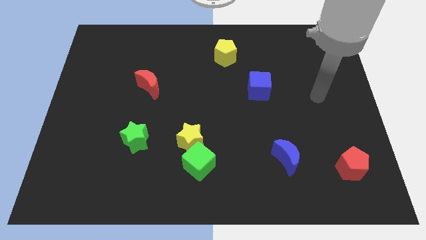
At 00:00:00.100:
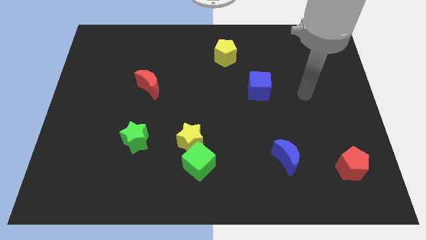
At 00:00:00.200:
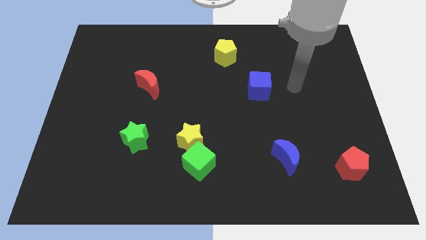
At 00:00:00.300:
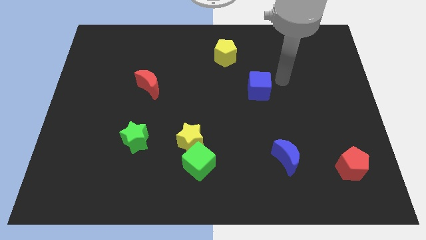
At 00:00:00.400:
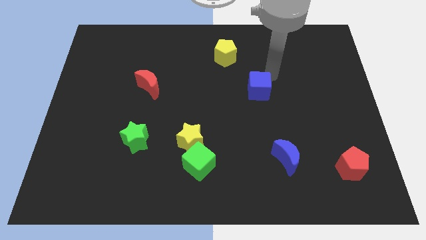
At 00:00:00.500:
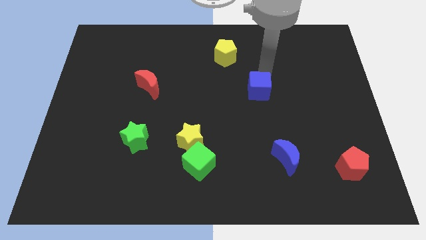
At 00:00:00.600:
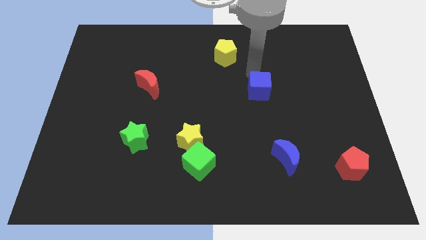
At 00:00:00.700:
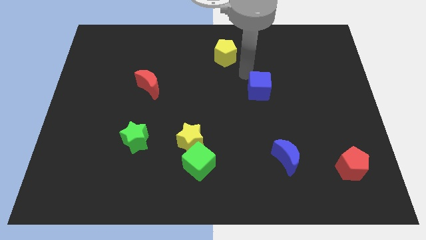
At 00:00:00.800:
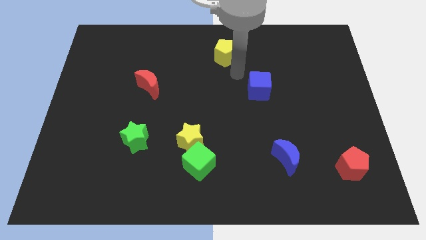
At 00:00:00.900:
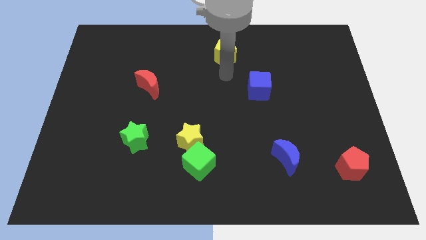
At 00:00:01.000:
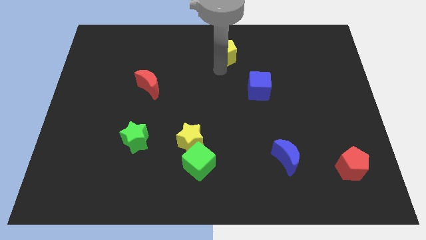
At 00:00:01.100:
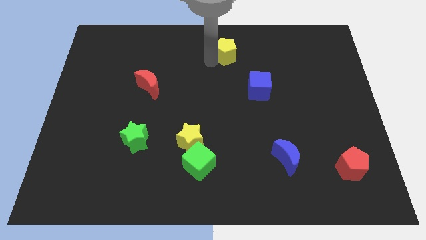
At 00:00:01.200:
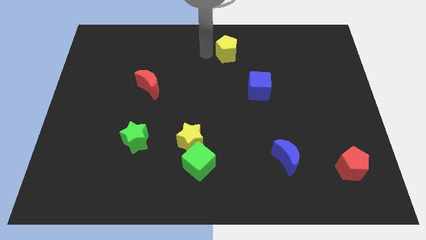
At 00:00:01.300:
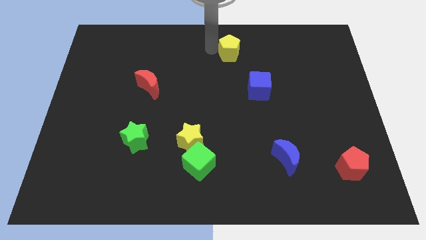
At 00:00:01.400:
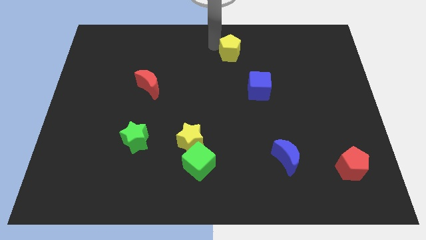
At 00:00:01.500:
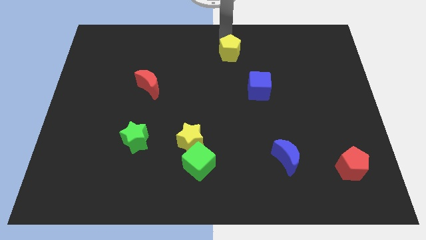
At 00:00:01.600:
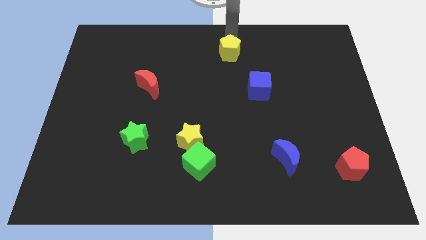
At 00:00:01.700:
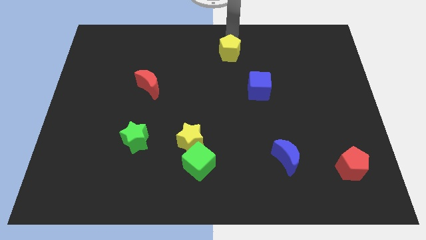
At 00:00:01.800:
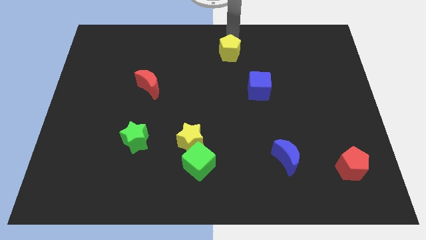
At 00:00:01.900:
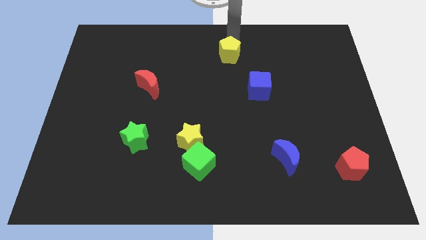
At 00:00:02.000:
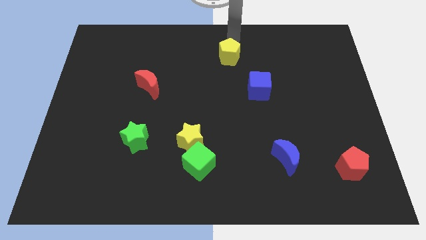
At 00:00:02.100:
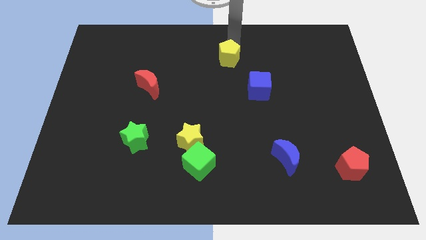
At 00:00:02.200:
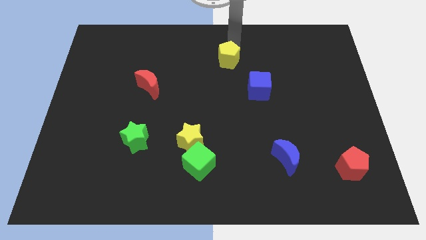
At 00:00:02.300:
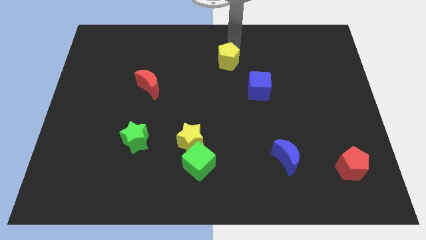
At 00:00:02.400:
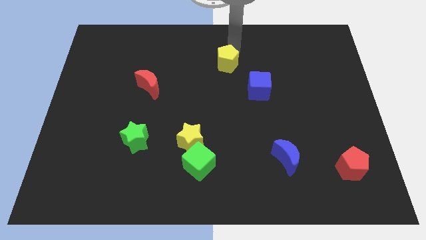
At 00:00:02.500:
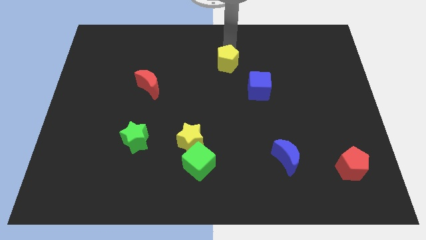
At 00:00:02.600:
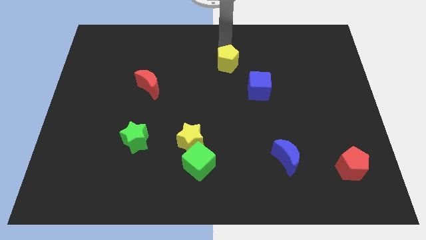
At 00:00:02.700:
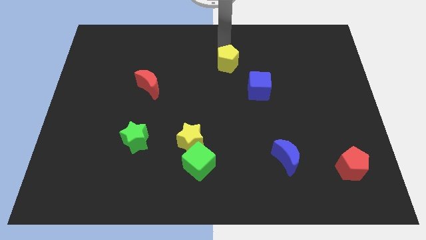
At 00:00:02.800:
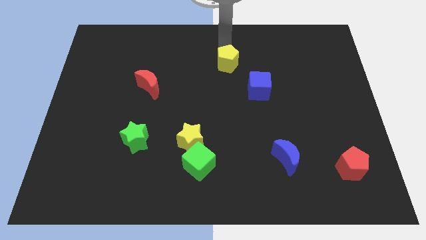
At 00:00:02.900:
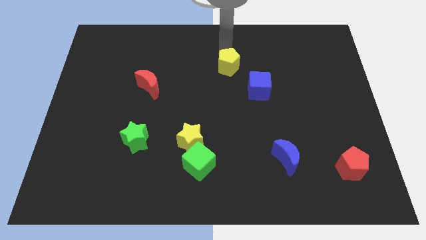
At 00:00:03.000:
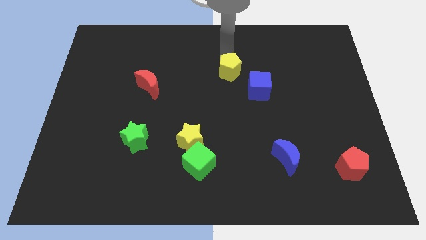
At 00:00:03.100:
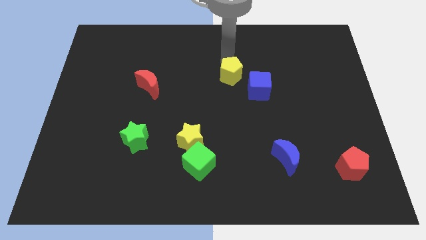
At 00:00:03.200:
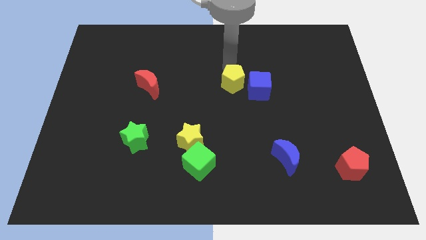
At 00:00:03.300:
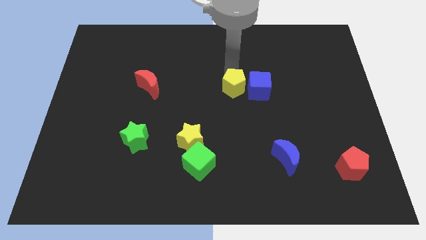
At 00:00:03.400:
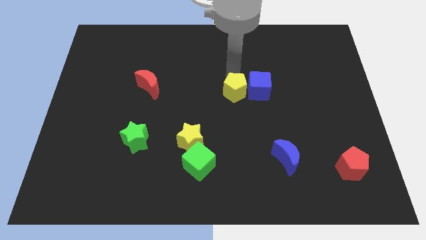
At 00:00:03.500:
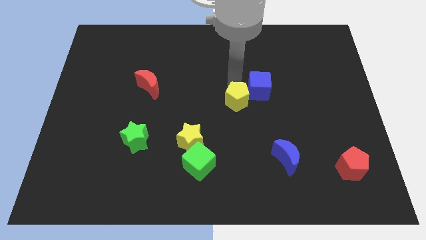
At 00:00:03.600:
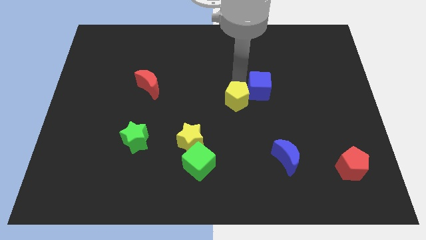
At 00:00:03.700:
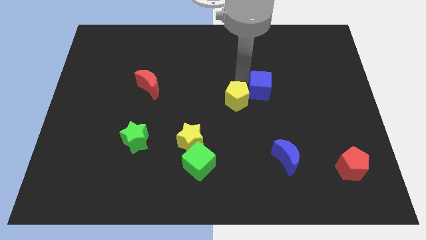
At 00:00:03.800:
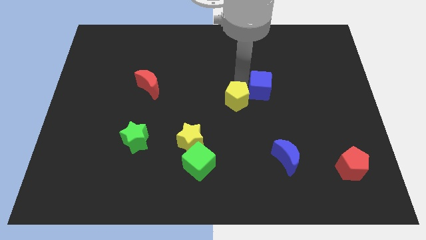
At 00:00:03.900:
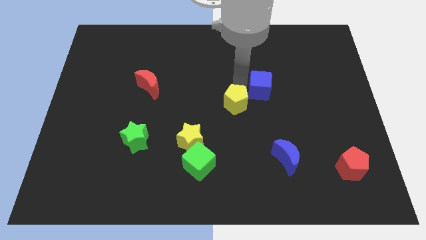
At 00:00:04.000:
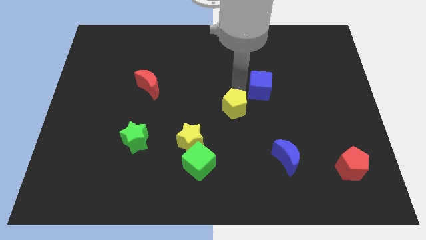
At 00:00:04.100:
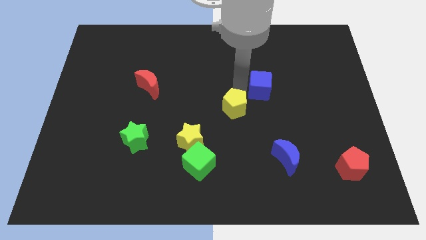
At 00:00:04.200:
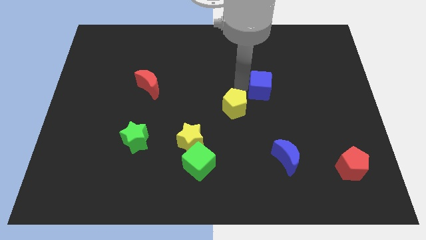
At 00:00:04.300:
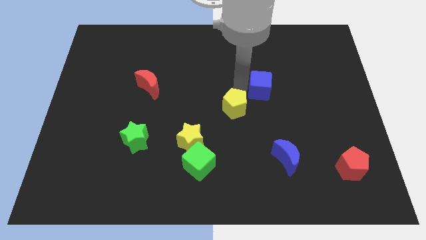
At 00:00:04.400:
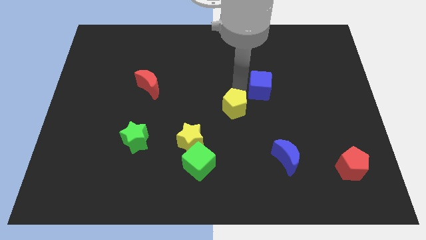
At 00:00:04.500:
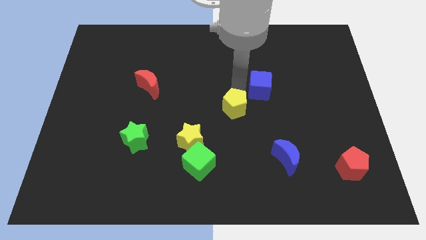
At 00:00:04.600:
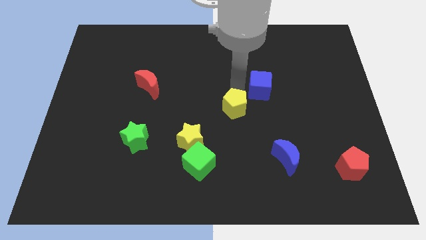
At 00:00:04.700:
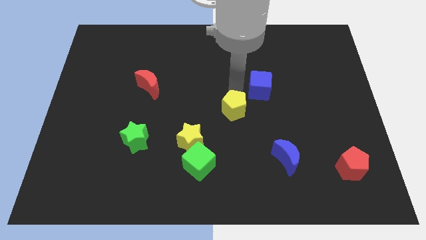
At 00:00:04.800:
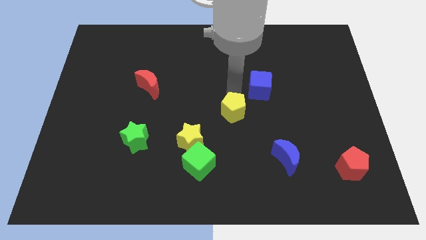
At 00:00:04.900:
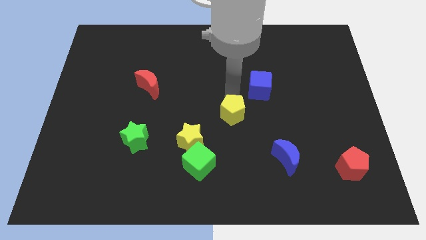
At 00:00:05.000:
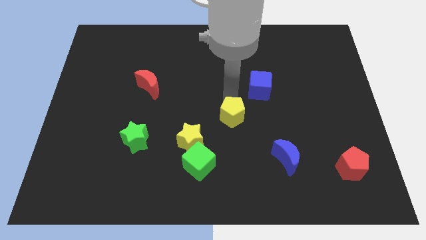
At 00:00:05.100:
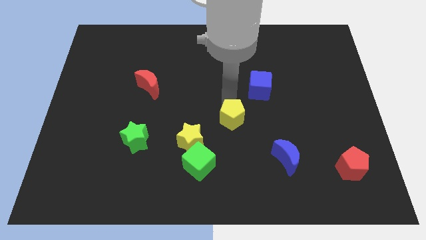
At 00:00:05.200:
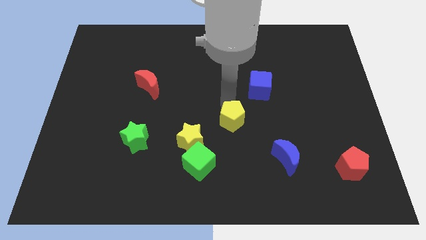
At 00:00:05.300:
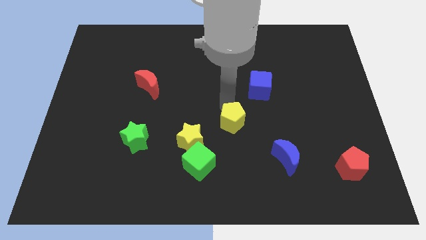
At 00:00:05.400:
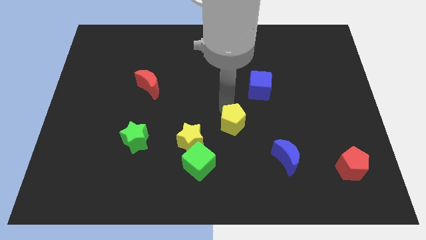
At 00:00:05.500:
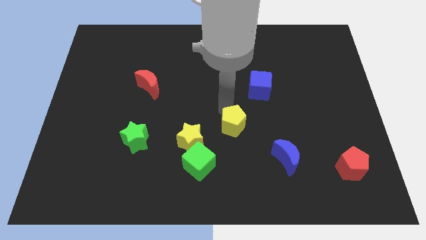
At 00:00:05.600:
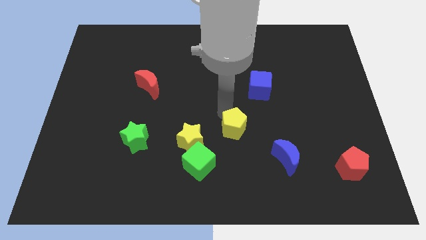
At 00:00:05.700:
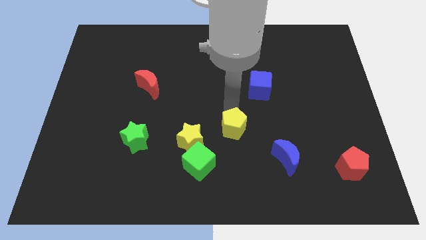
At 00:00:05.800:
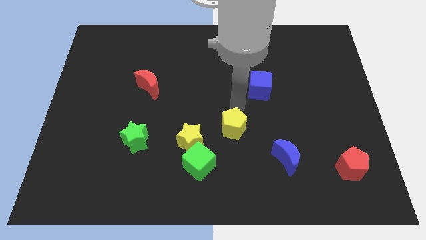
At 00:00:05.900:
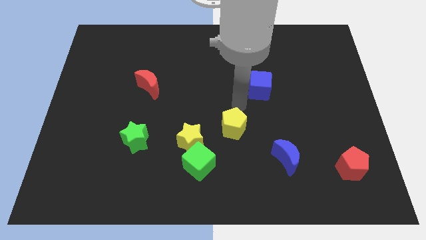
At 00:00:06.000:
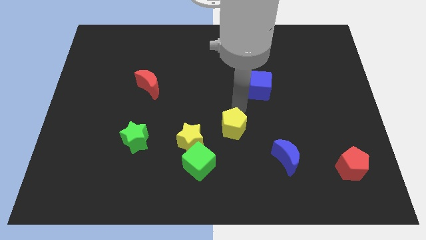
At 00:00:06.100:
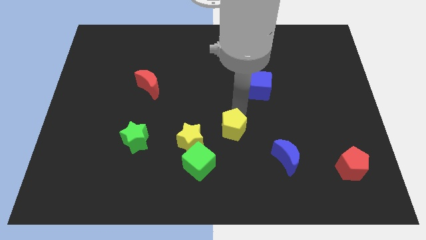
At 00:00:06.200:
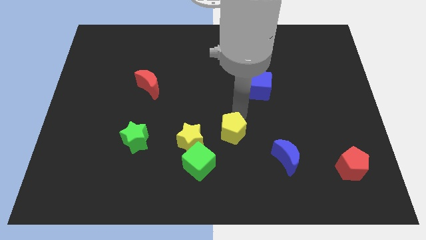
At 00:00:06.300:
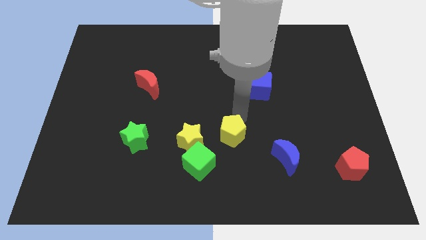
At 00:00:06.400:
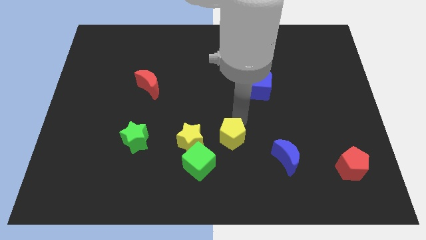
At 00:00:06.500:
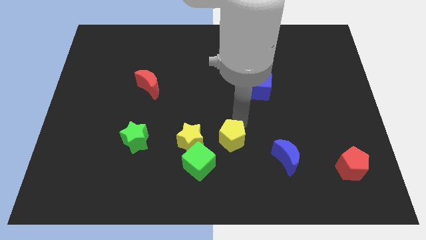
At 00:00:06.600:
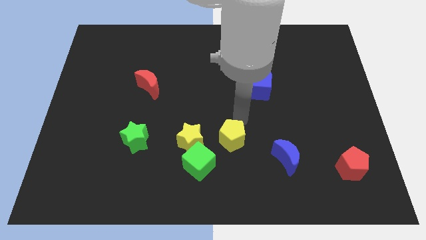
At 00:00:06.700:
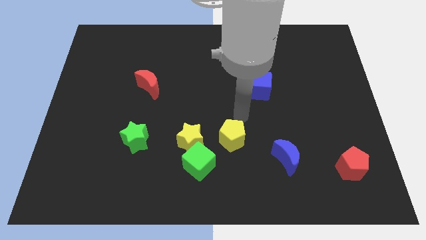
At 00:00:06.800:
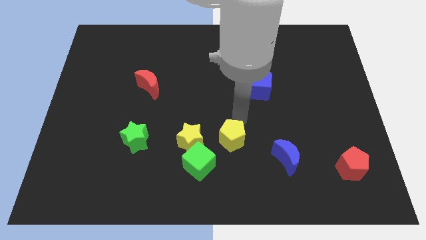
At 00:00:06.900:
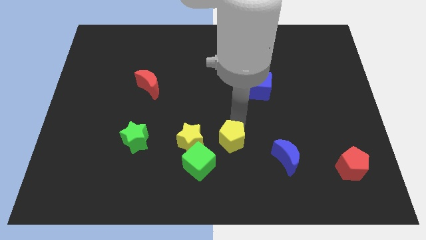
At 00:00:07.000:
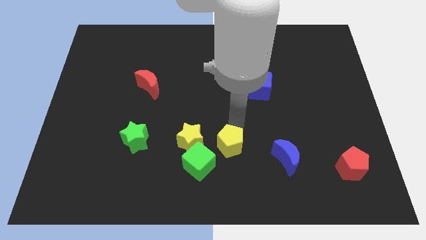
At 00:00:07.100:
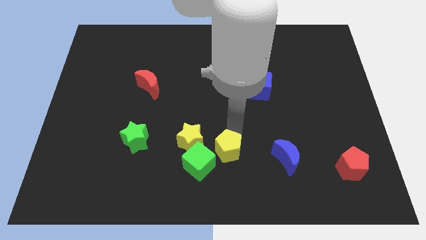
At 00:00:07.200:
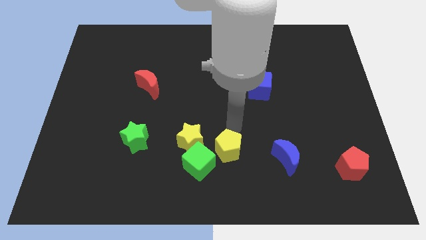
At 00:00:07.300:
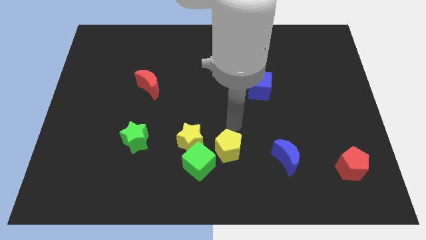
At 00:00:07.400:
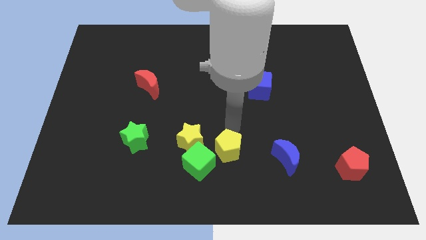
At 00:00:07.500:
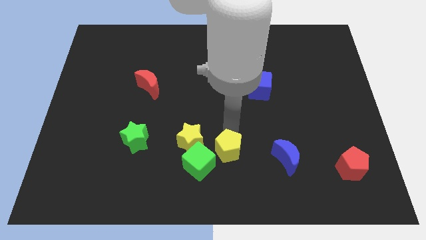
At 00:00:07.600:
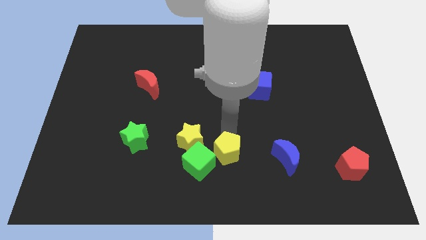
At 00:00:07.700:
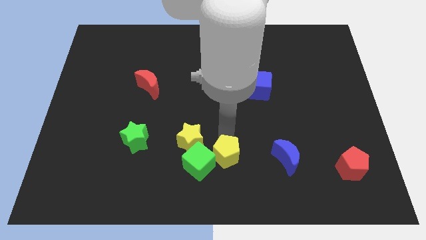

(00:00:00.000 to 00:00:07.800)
slide the yellow pentagon to the bottom side
